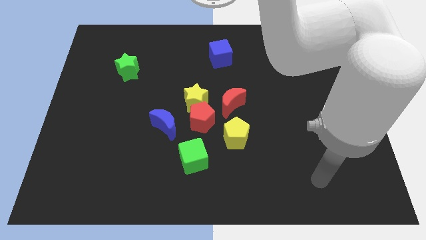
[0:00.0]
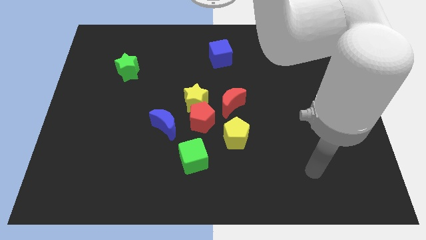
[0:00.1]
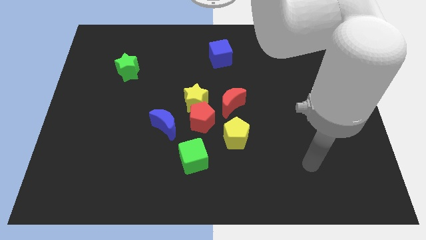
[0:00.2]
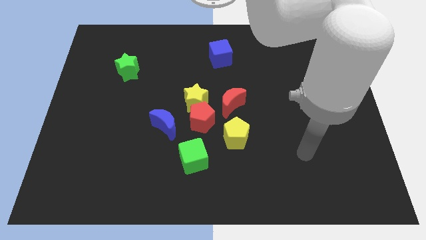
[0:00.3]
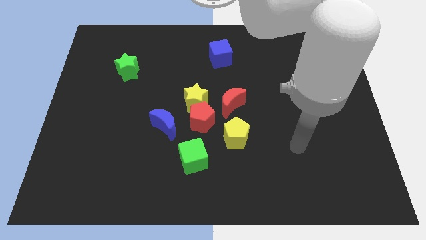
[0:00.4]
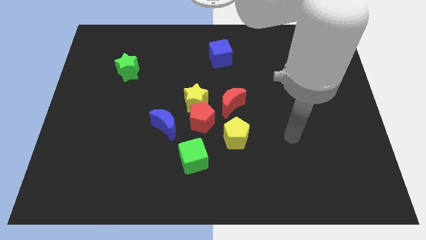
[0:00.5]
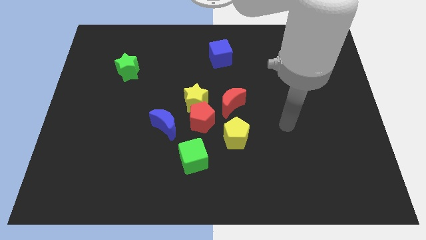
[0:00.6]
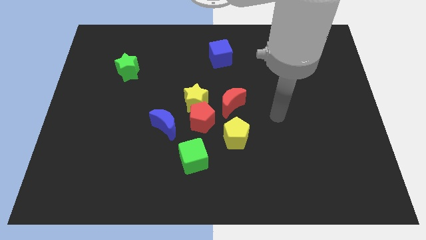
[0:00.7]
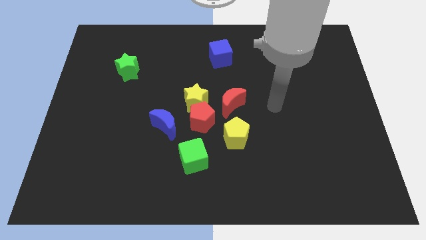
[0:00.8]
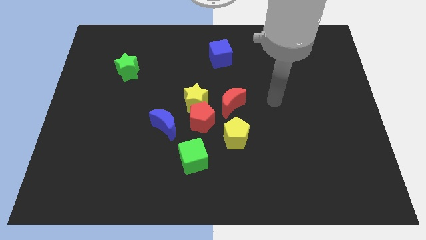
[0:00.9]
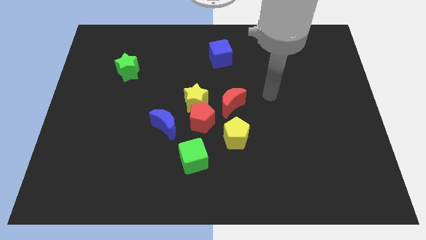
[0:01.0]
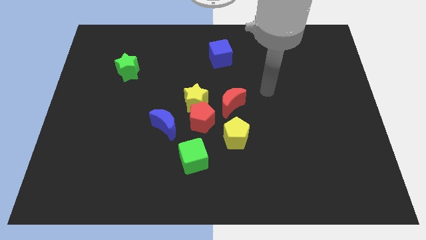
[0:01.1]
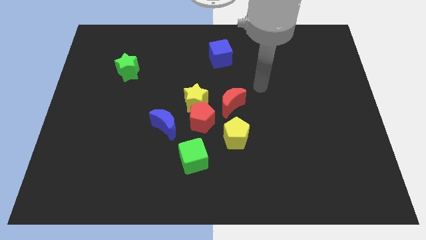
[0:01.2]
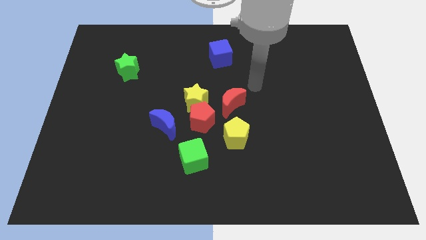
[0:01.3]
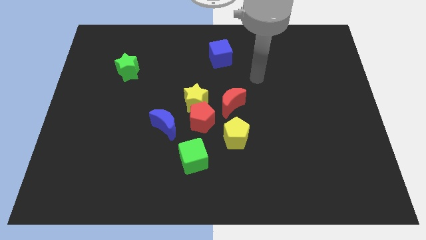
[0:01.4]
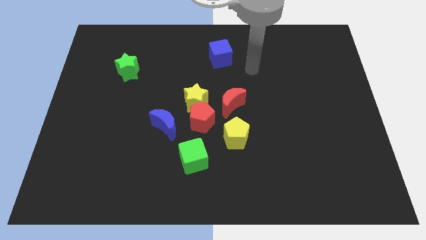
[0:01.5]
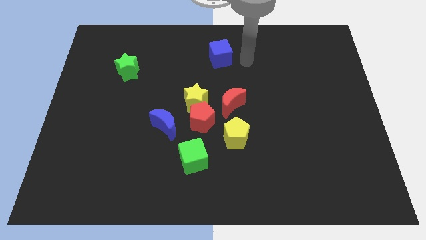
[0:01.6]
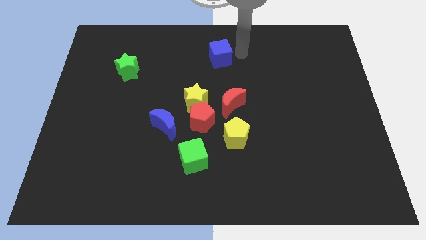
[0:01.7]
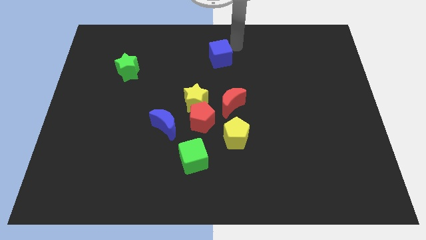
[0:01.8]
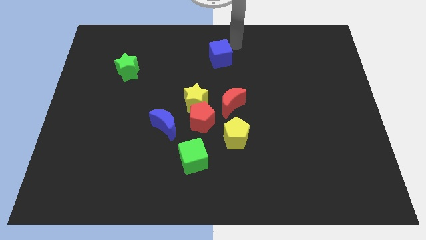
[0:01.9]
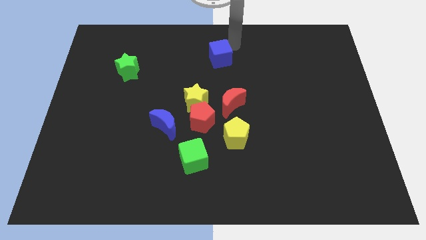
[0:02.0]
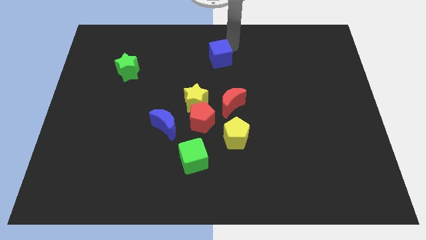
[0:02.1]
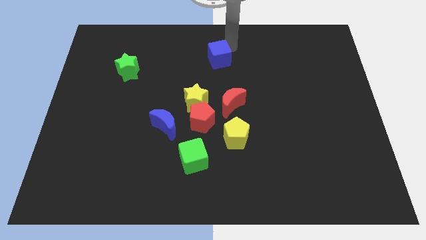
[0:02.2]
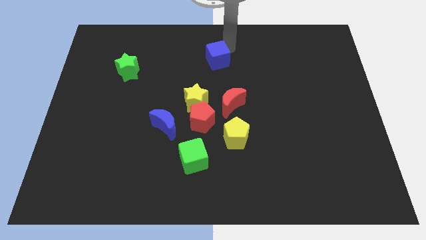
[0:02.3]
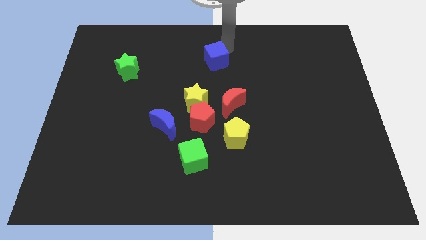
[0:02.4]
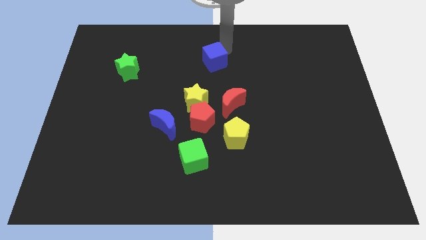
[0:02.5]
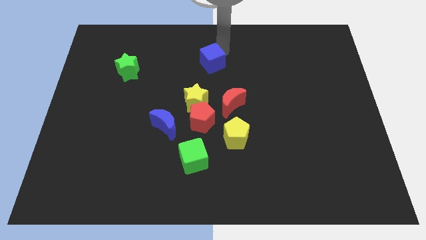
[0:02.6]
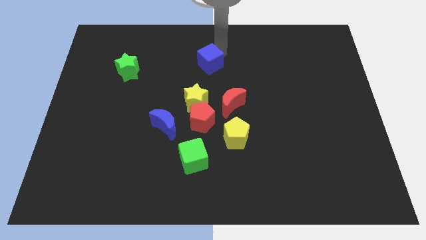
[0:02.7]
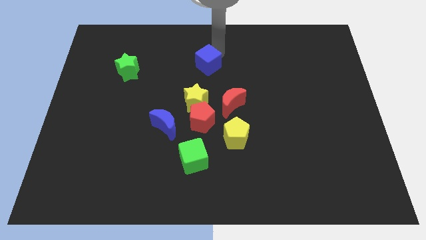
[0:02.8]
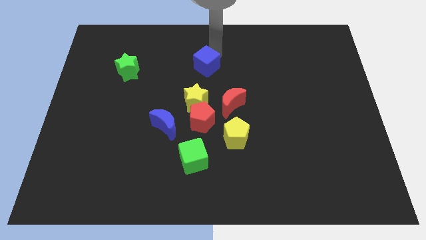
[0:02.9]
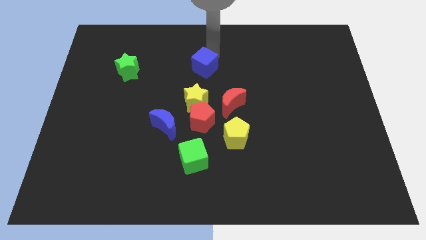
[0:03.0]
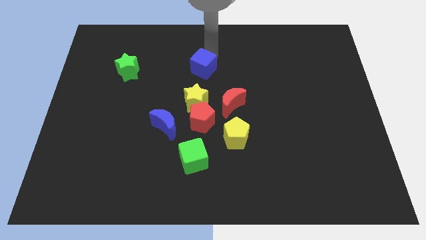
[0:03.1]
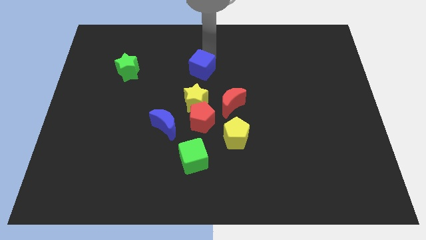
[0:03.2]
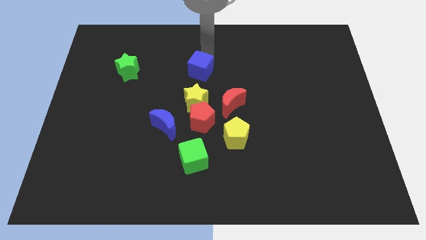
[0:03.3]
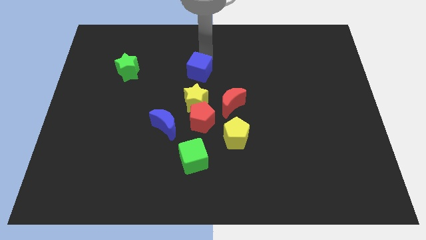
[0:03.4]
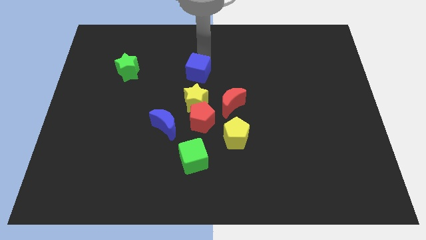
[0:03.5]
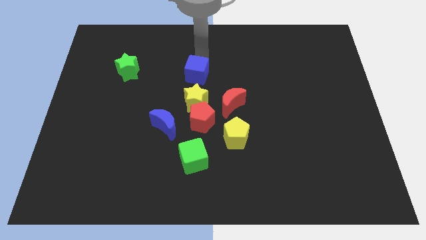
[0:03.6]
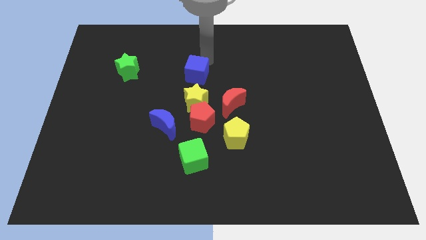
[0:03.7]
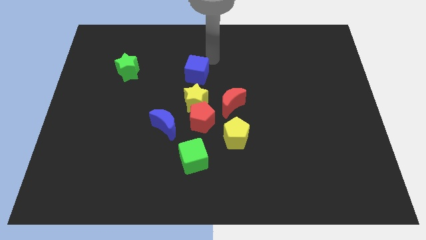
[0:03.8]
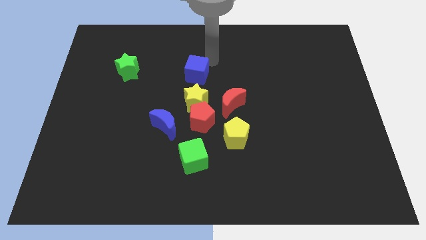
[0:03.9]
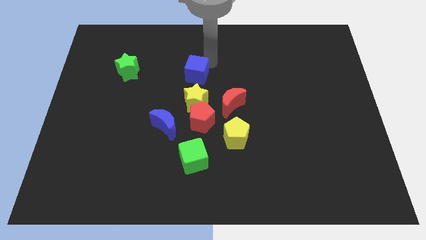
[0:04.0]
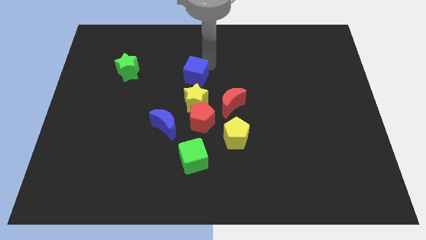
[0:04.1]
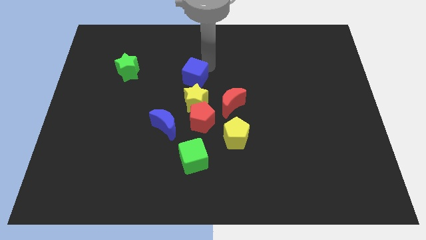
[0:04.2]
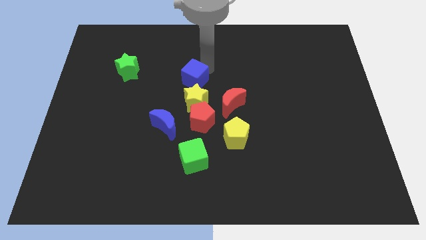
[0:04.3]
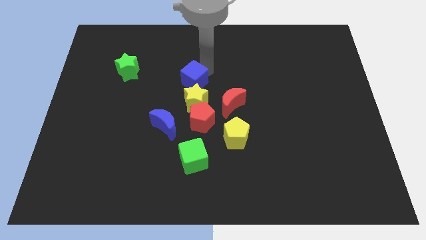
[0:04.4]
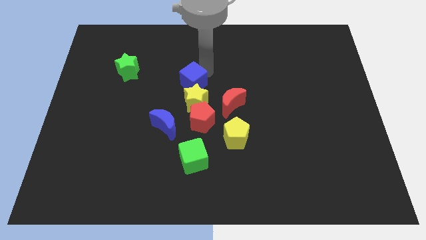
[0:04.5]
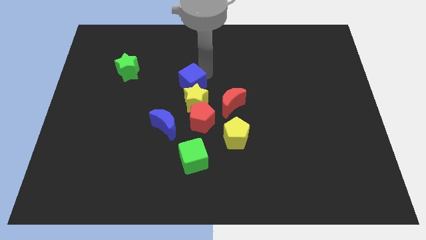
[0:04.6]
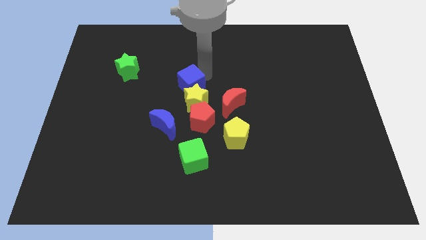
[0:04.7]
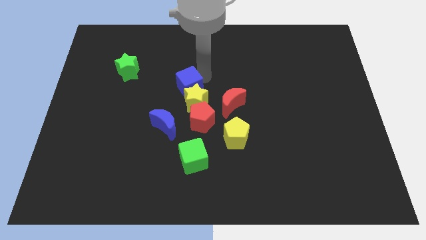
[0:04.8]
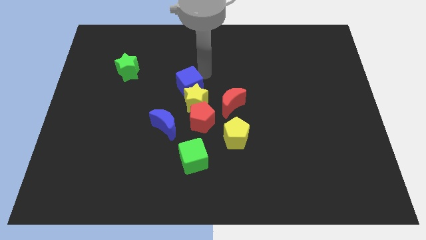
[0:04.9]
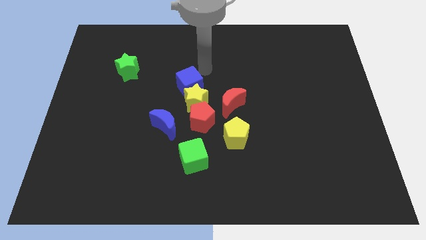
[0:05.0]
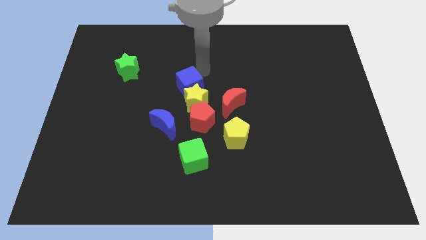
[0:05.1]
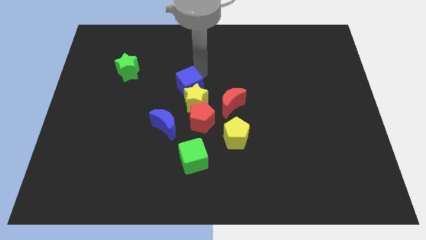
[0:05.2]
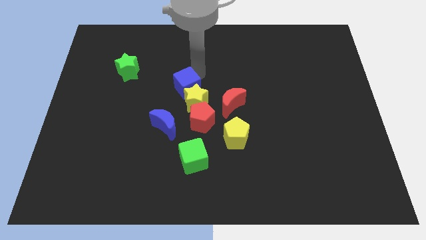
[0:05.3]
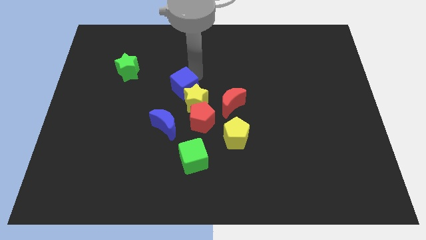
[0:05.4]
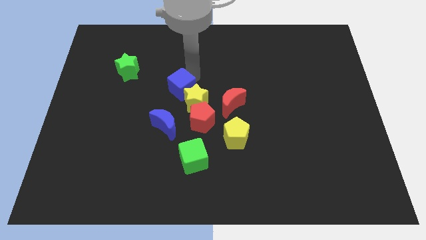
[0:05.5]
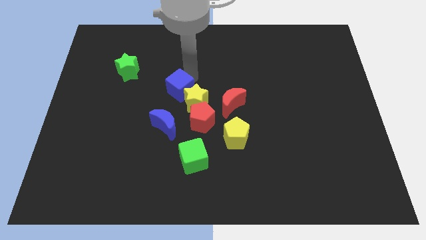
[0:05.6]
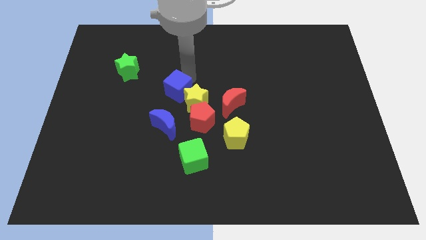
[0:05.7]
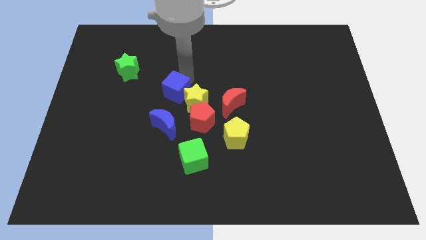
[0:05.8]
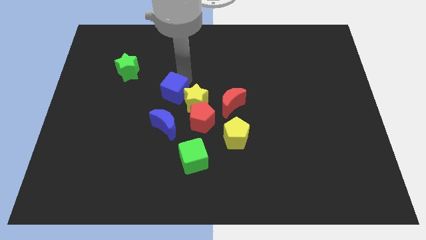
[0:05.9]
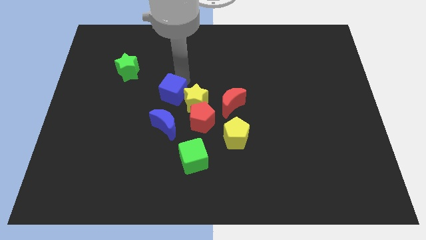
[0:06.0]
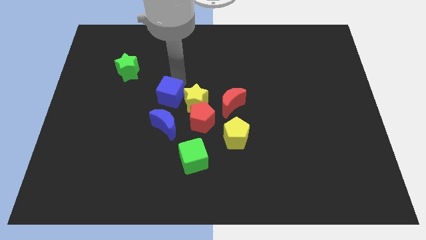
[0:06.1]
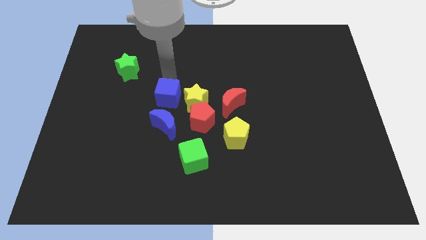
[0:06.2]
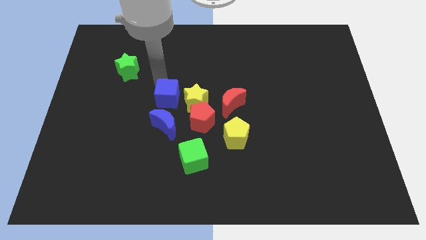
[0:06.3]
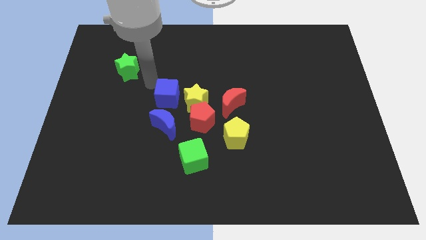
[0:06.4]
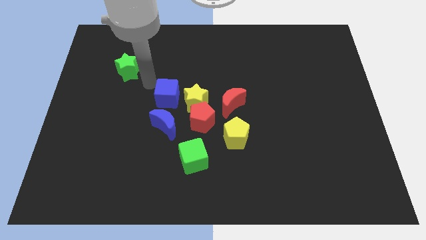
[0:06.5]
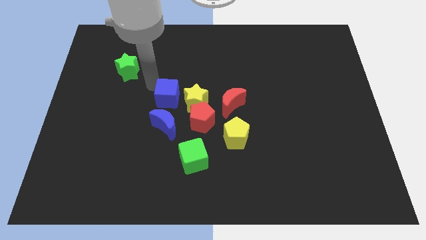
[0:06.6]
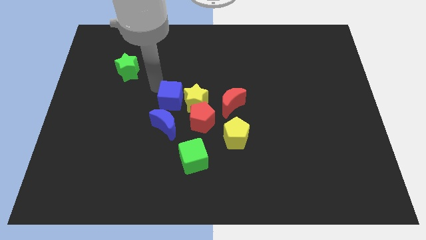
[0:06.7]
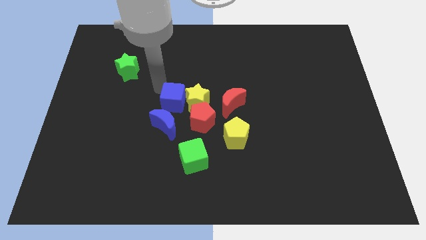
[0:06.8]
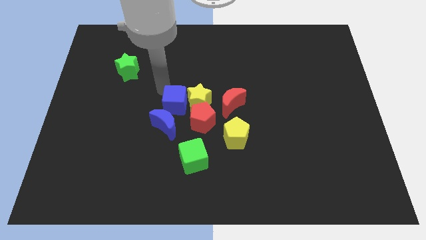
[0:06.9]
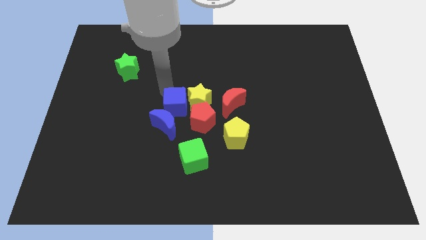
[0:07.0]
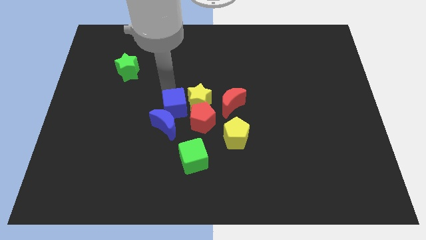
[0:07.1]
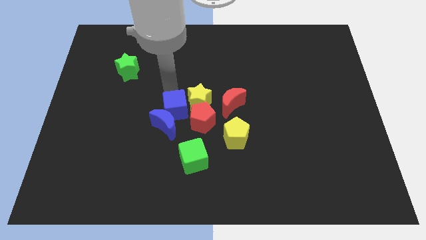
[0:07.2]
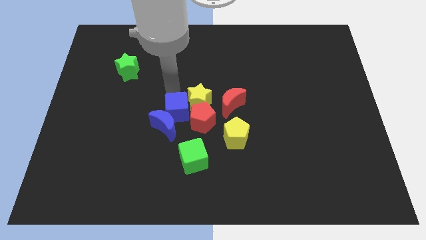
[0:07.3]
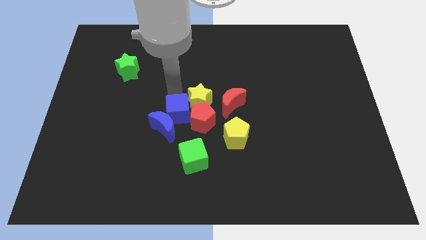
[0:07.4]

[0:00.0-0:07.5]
slide the blue cube close to the red pentagon
